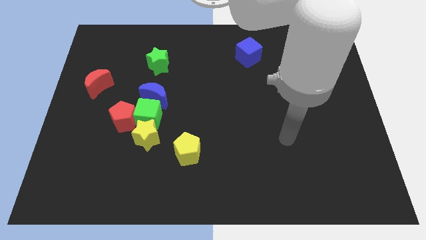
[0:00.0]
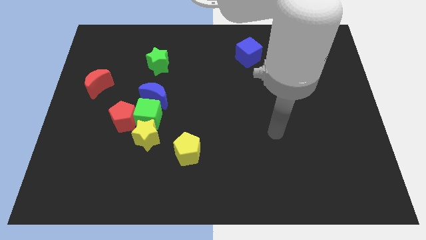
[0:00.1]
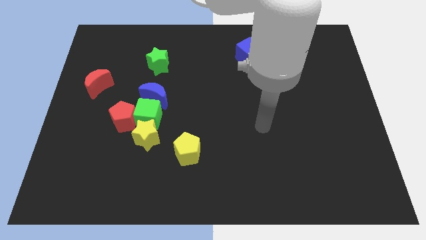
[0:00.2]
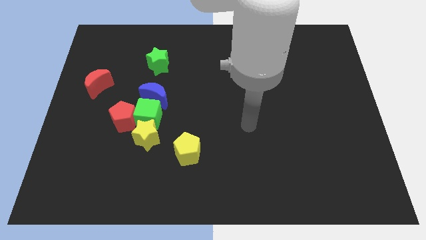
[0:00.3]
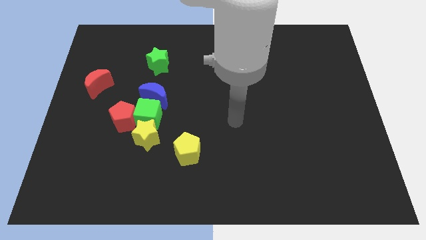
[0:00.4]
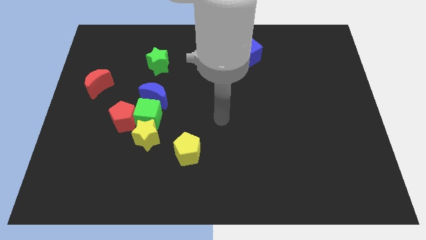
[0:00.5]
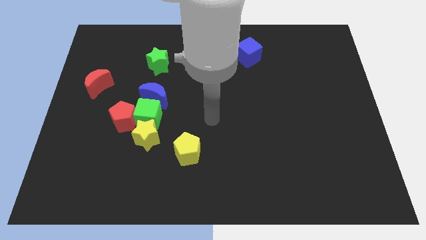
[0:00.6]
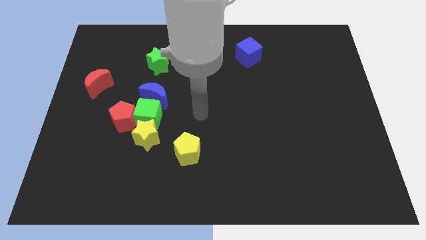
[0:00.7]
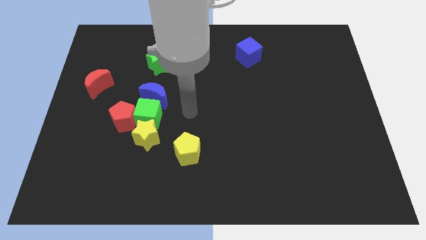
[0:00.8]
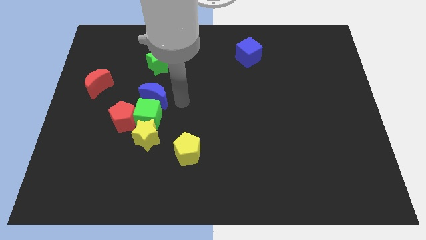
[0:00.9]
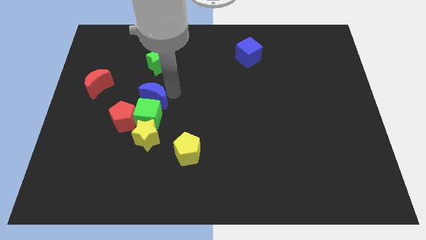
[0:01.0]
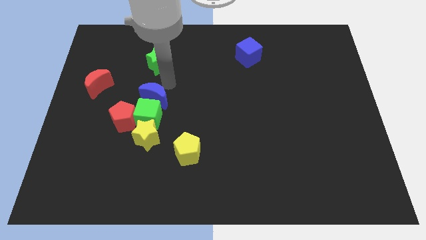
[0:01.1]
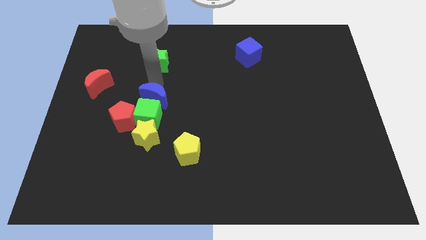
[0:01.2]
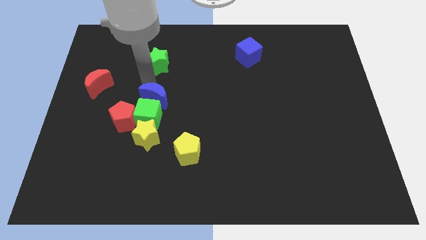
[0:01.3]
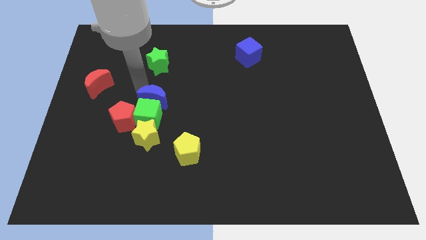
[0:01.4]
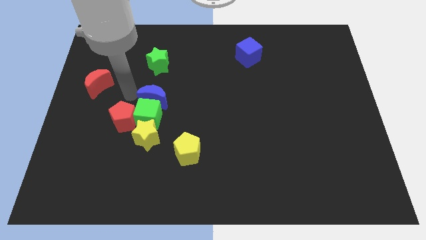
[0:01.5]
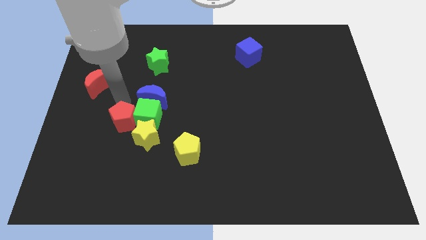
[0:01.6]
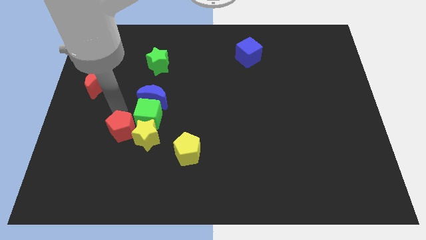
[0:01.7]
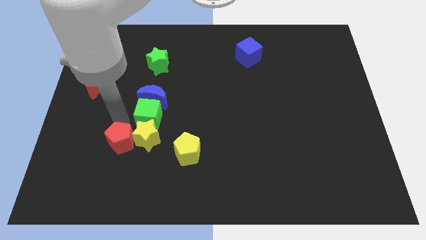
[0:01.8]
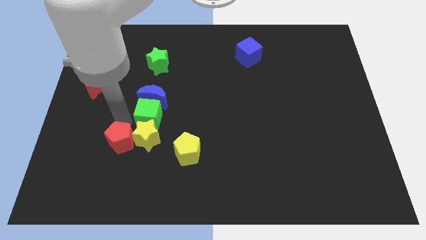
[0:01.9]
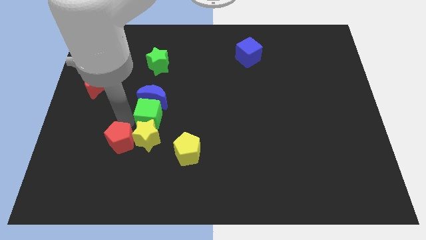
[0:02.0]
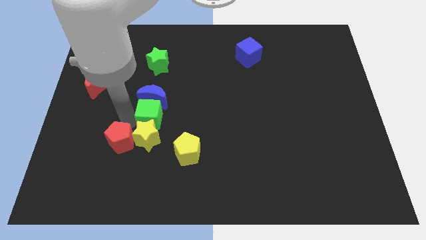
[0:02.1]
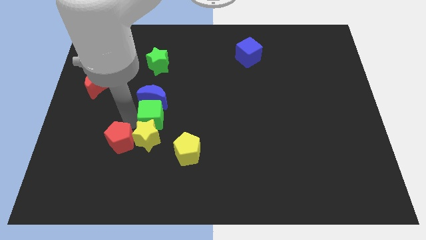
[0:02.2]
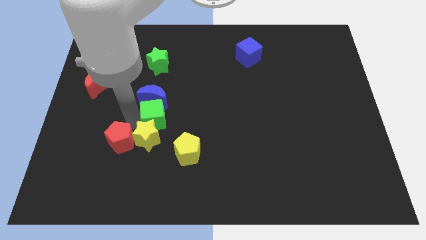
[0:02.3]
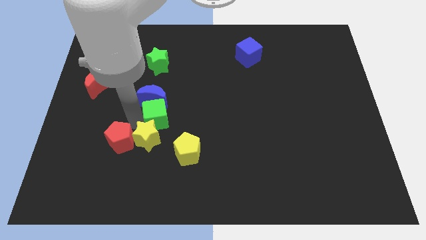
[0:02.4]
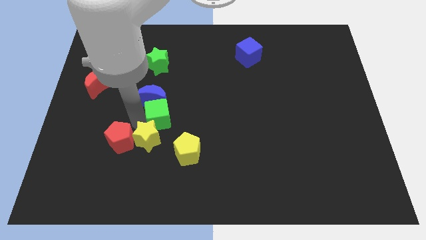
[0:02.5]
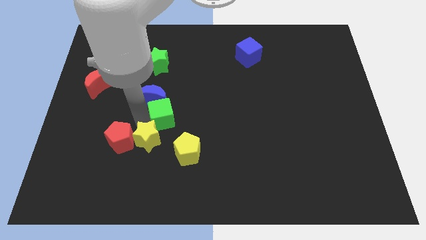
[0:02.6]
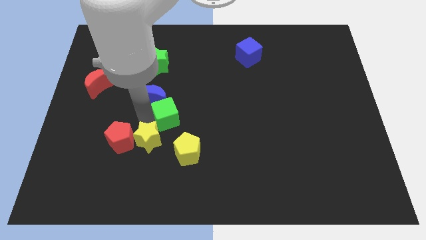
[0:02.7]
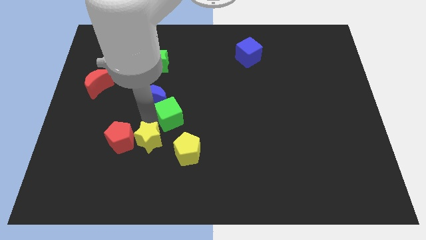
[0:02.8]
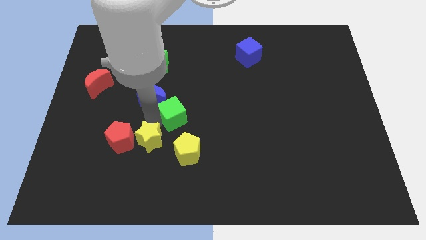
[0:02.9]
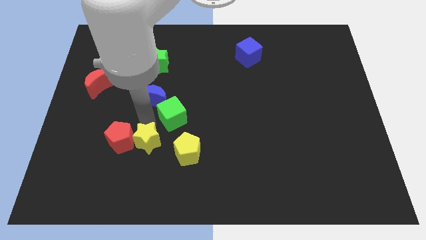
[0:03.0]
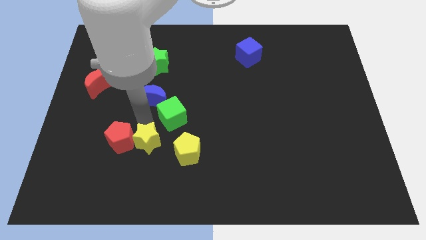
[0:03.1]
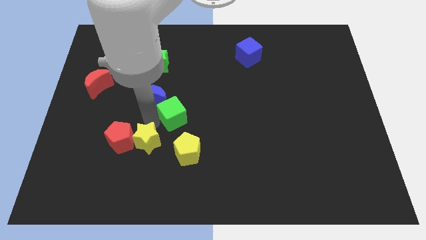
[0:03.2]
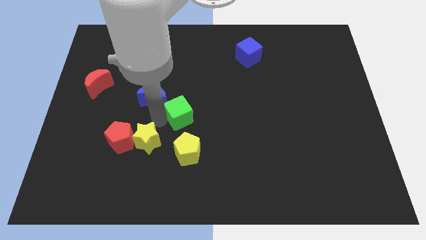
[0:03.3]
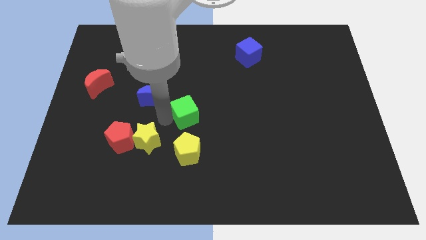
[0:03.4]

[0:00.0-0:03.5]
move the green cube away from the clump

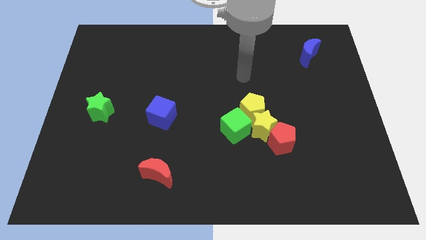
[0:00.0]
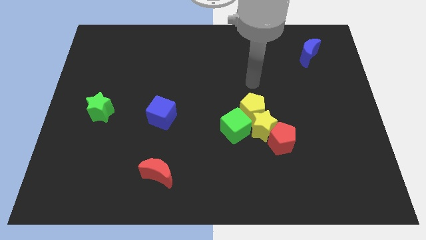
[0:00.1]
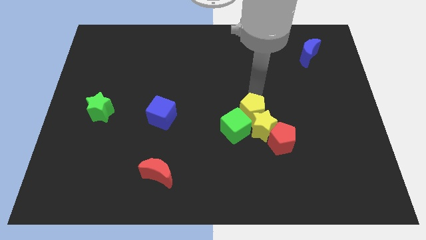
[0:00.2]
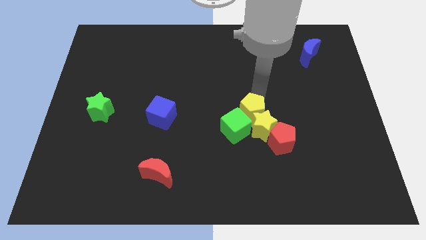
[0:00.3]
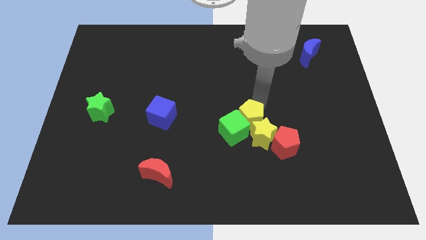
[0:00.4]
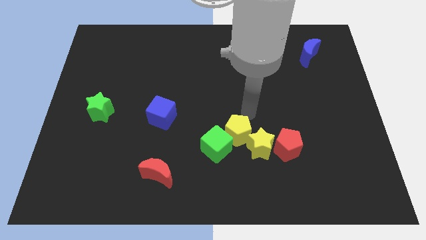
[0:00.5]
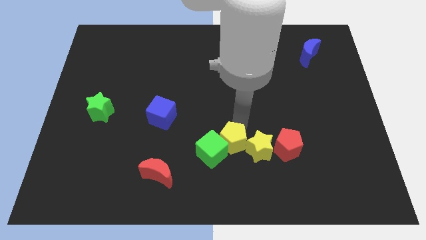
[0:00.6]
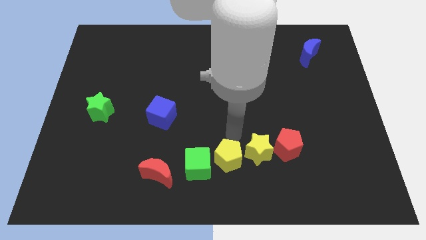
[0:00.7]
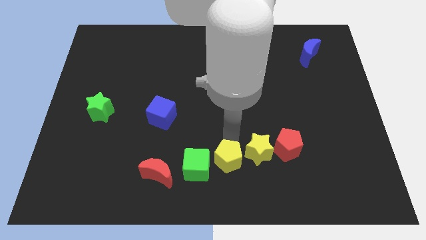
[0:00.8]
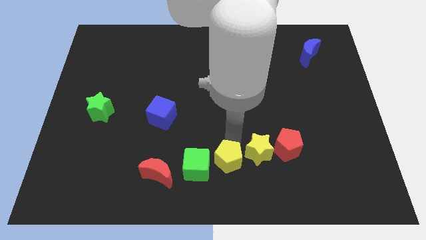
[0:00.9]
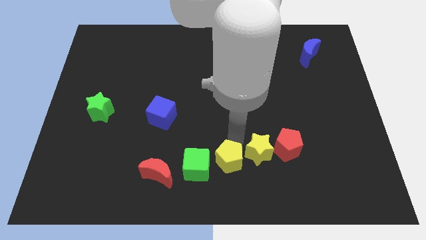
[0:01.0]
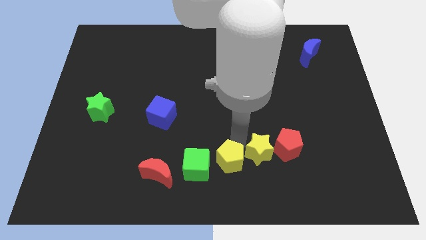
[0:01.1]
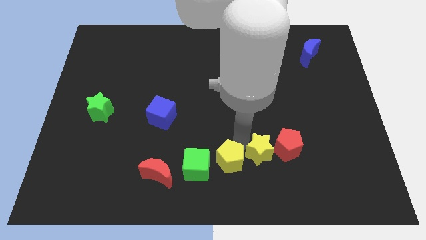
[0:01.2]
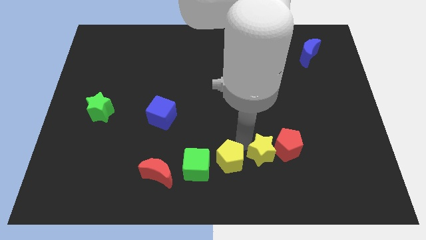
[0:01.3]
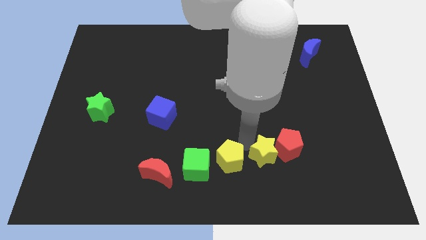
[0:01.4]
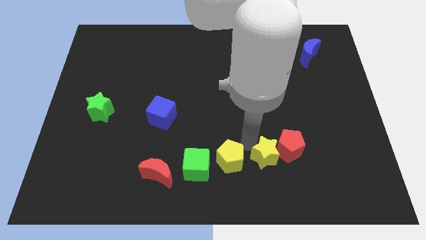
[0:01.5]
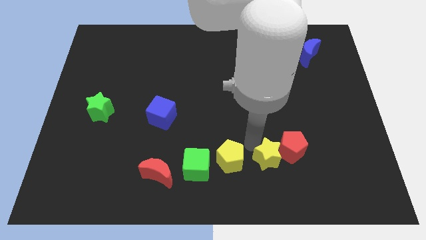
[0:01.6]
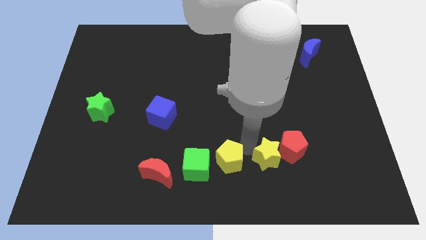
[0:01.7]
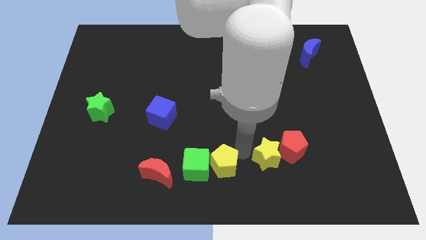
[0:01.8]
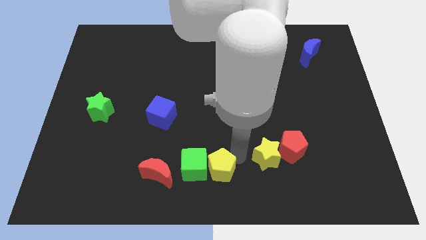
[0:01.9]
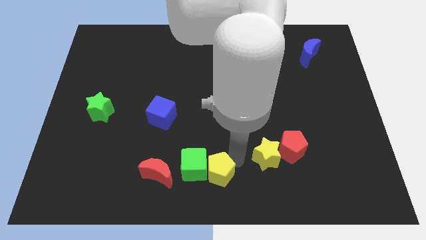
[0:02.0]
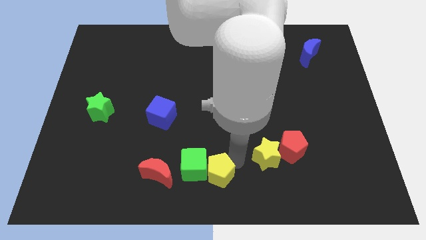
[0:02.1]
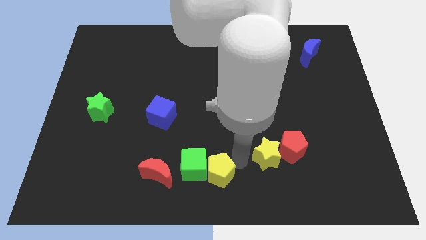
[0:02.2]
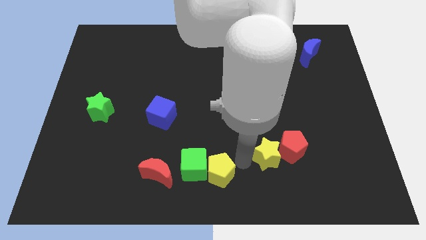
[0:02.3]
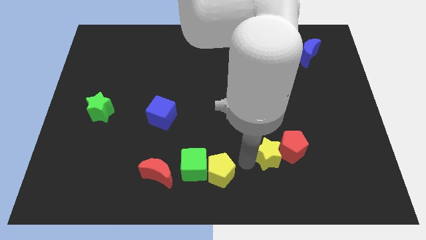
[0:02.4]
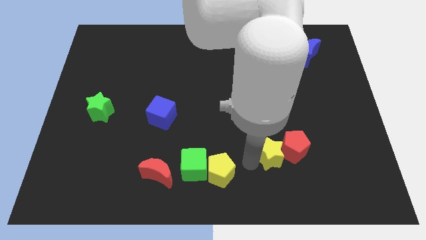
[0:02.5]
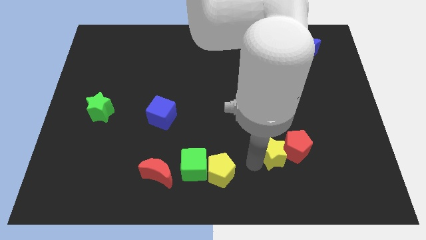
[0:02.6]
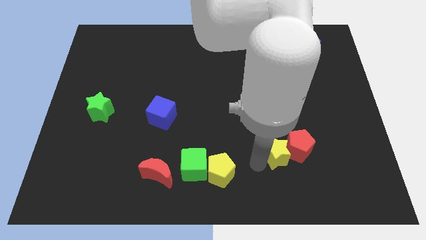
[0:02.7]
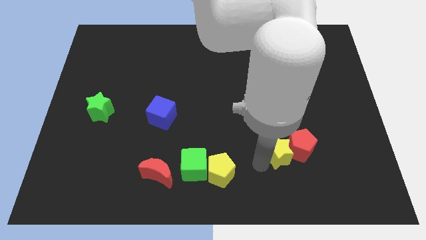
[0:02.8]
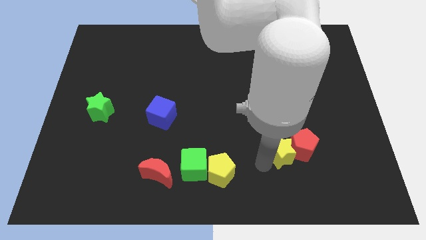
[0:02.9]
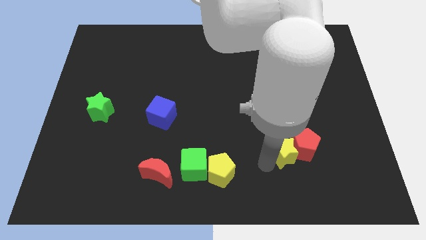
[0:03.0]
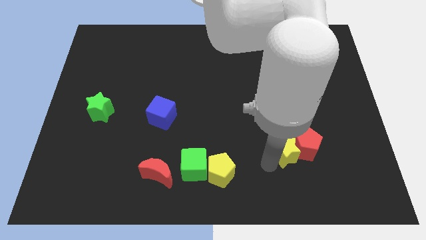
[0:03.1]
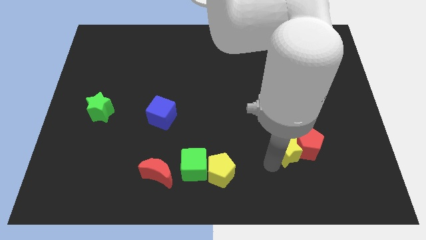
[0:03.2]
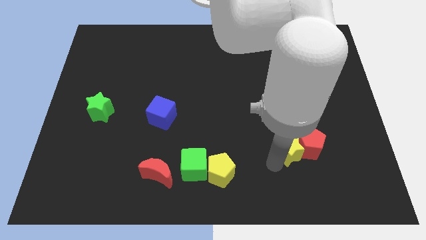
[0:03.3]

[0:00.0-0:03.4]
separate the yellow star from the red pentagon, yellow pentagon, and green cube

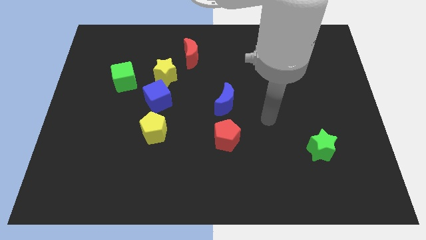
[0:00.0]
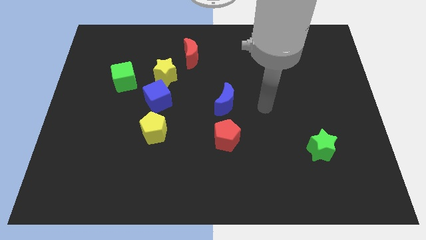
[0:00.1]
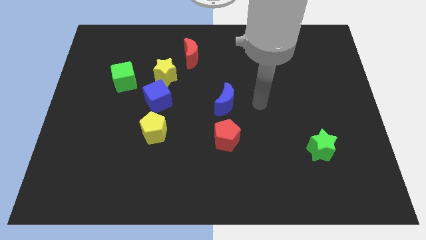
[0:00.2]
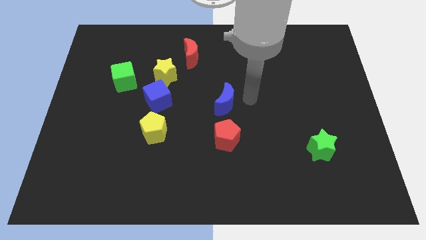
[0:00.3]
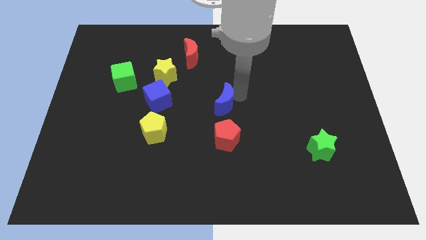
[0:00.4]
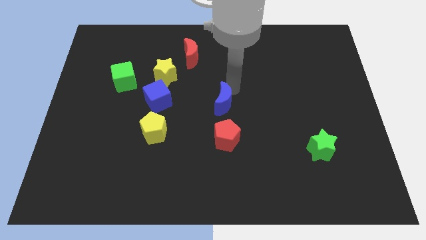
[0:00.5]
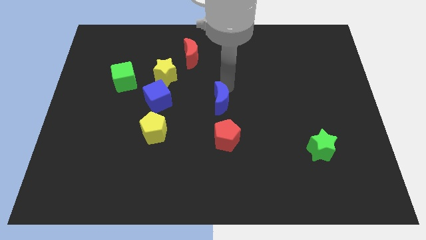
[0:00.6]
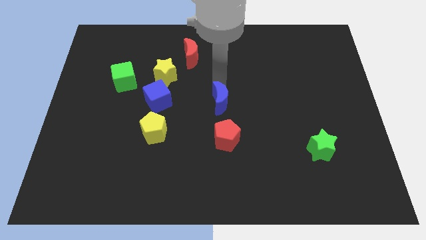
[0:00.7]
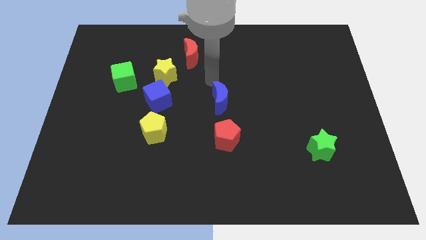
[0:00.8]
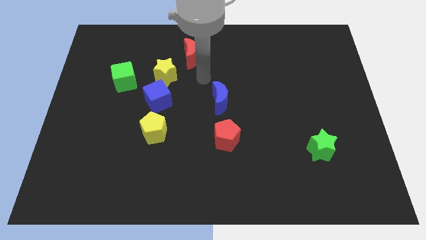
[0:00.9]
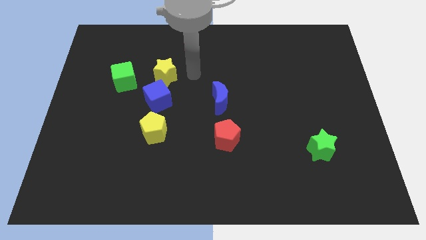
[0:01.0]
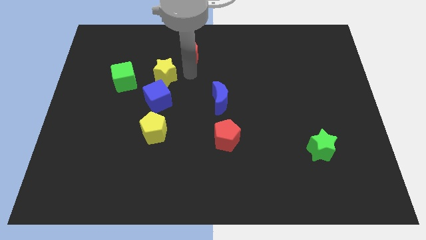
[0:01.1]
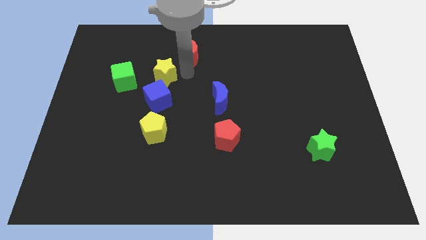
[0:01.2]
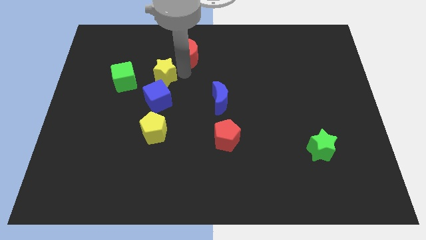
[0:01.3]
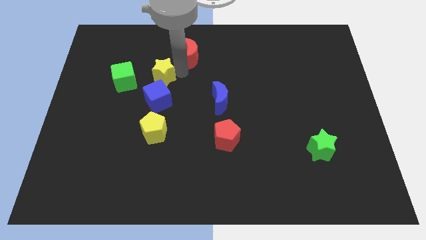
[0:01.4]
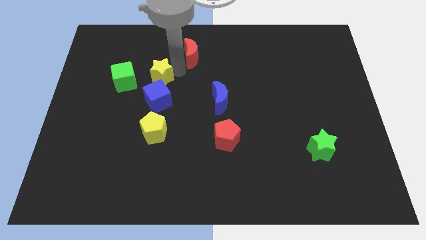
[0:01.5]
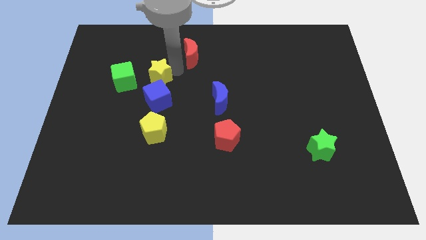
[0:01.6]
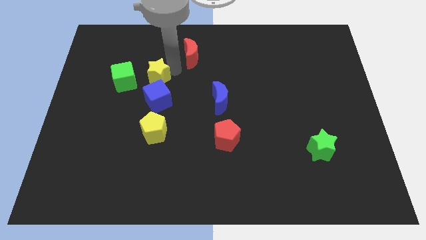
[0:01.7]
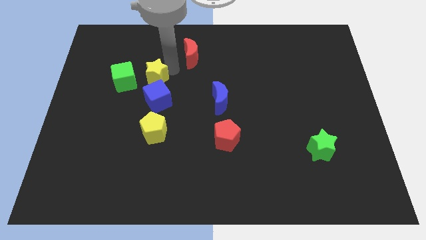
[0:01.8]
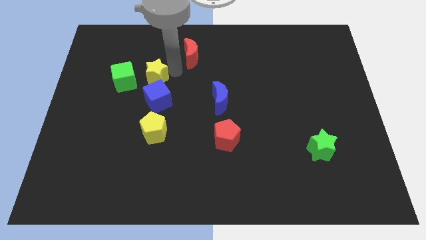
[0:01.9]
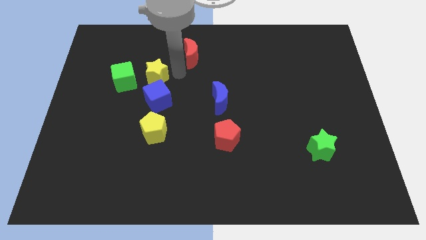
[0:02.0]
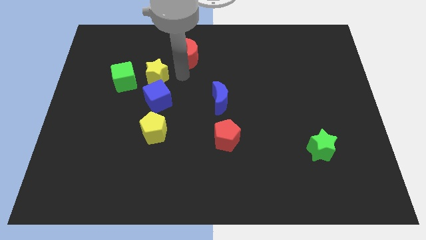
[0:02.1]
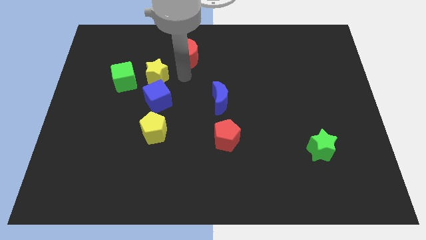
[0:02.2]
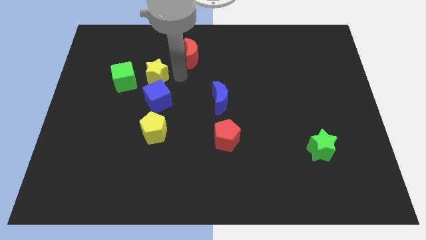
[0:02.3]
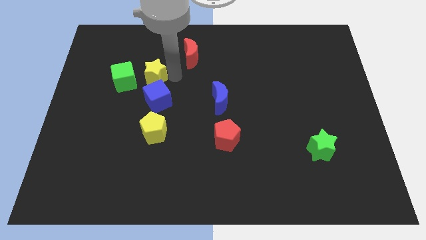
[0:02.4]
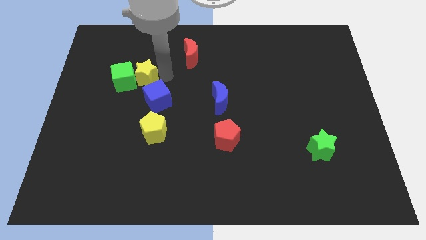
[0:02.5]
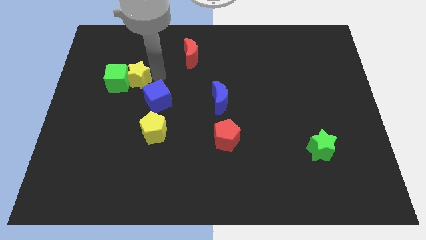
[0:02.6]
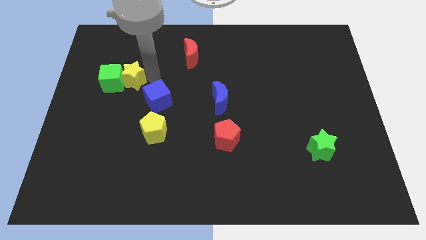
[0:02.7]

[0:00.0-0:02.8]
pull the yellow star apart from the blue cube and red moon
